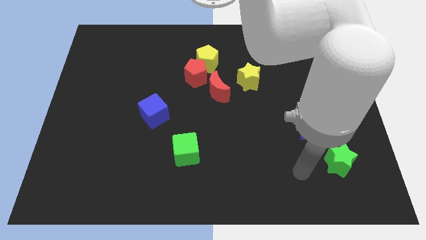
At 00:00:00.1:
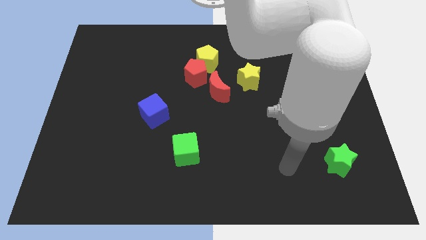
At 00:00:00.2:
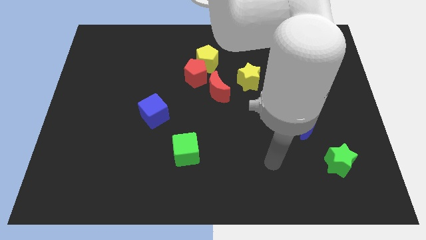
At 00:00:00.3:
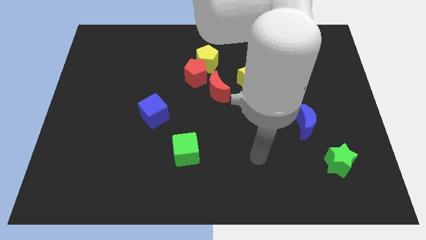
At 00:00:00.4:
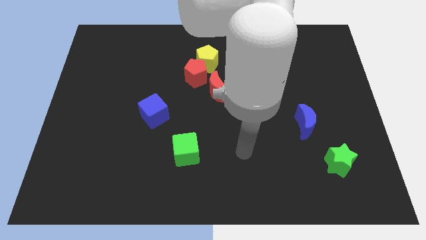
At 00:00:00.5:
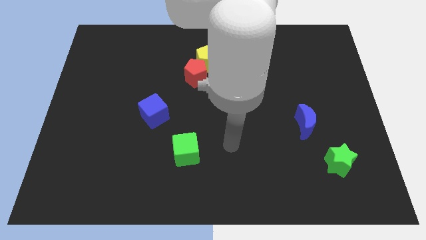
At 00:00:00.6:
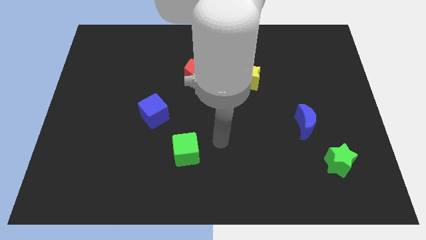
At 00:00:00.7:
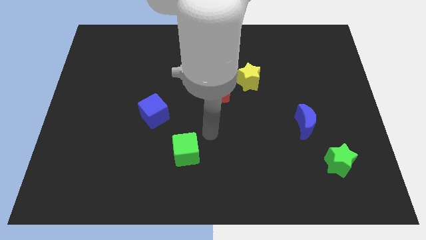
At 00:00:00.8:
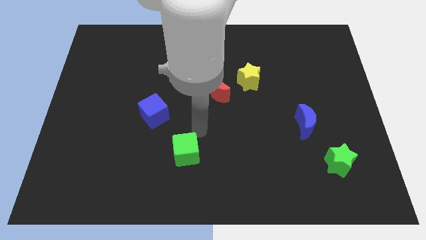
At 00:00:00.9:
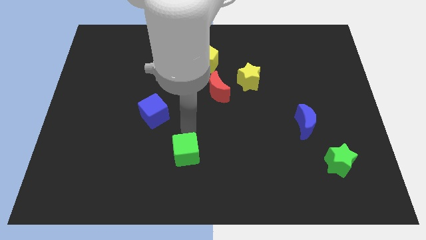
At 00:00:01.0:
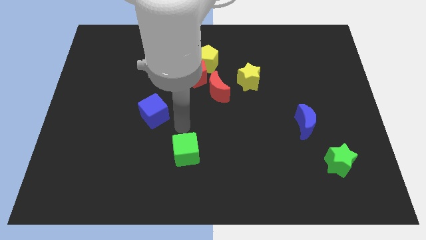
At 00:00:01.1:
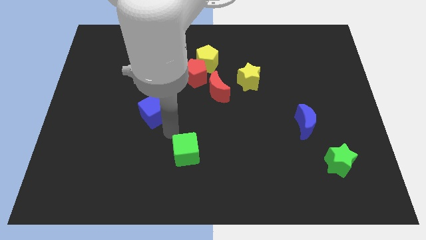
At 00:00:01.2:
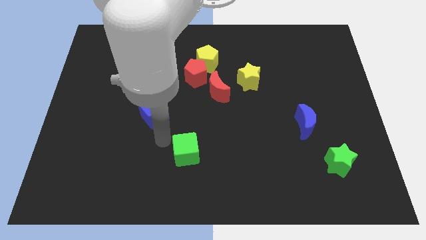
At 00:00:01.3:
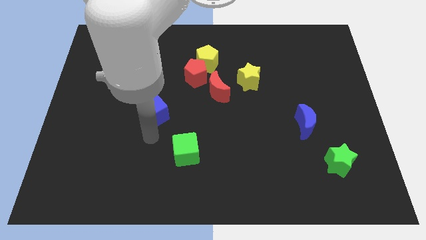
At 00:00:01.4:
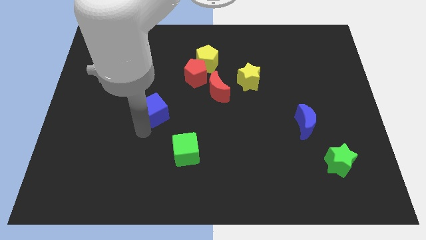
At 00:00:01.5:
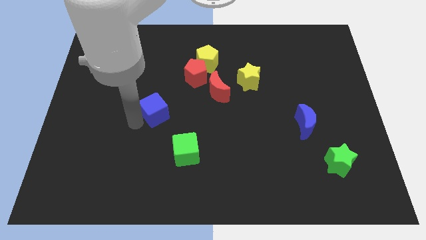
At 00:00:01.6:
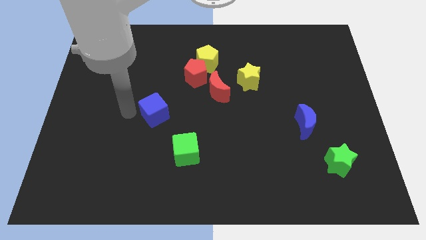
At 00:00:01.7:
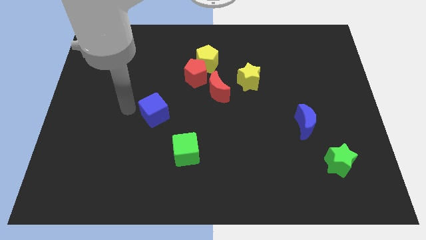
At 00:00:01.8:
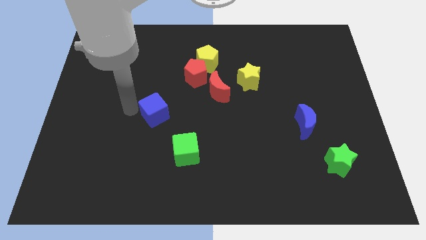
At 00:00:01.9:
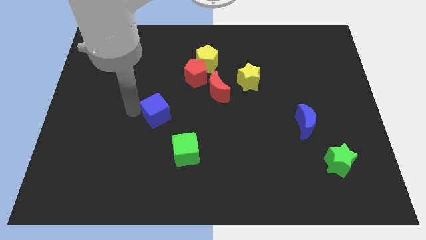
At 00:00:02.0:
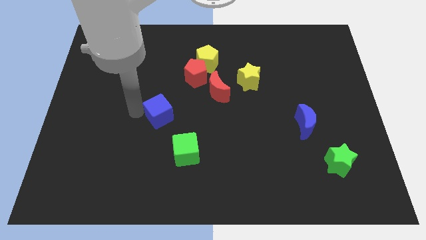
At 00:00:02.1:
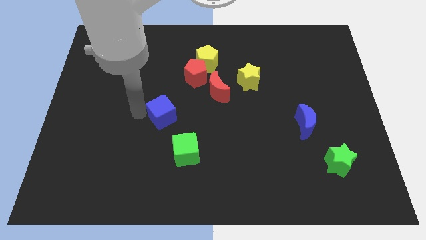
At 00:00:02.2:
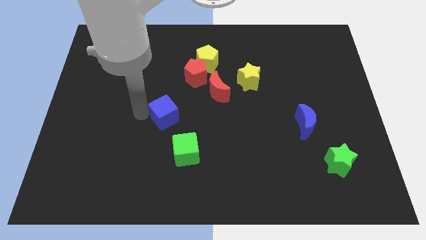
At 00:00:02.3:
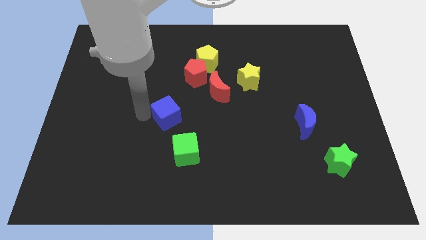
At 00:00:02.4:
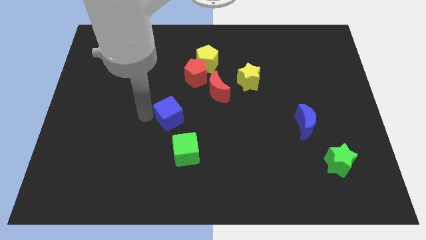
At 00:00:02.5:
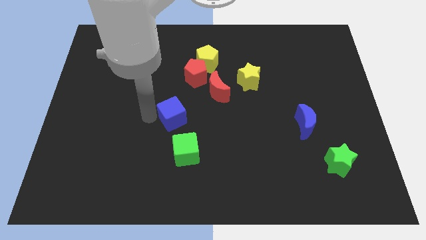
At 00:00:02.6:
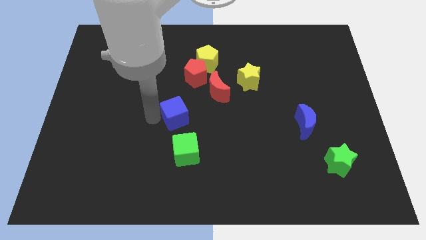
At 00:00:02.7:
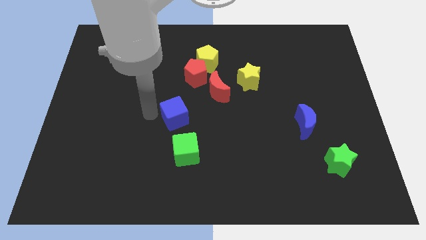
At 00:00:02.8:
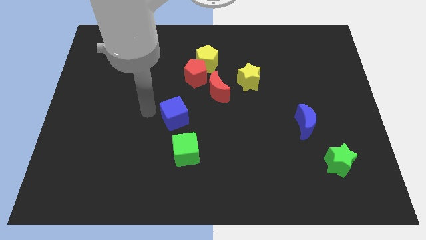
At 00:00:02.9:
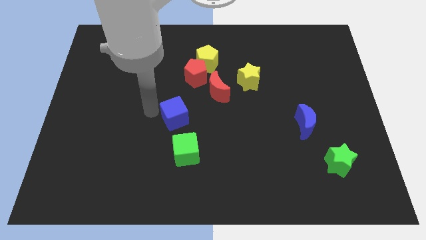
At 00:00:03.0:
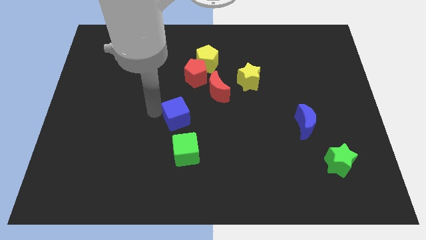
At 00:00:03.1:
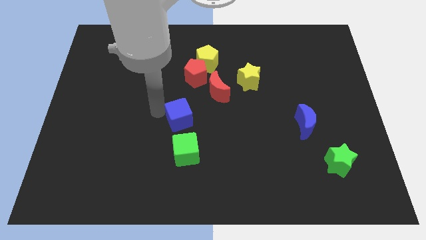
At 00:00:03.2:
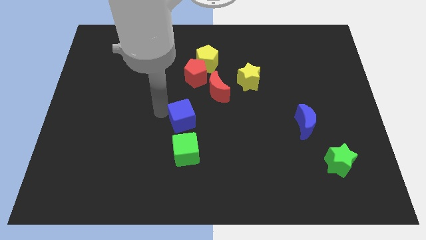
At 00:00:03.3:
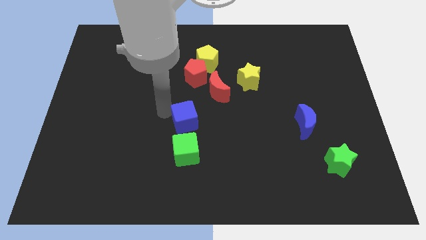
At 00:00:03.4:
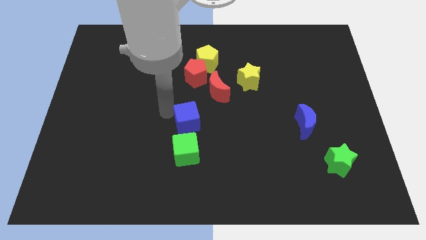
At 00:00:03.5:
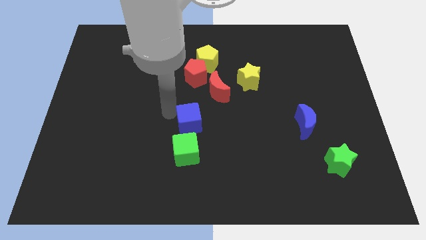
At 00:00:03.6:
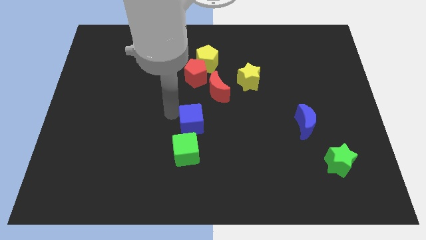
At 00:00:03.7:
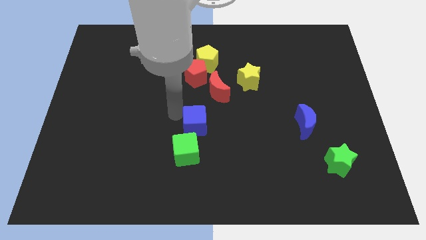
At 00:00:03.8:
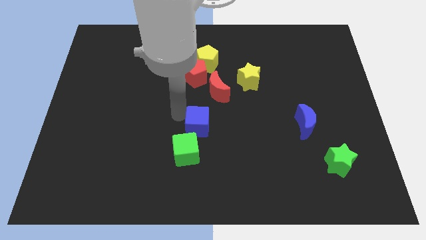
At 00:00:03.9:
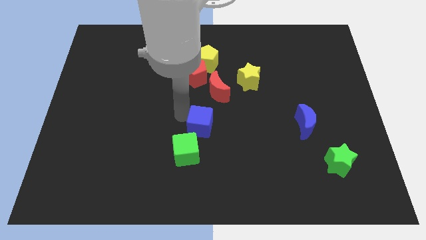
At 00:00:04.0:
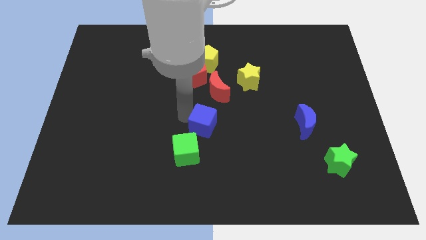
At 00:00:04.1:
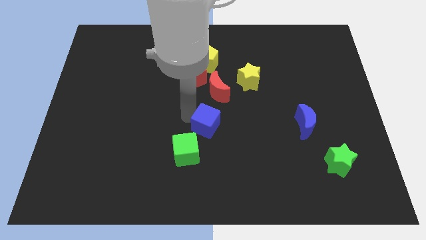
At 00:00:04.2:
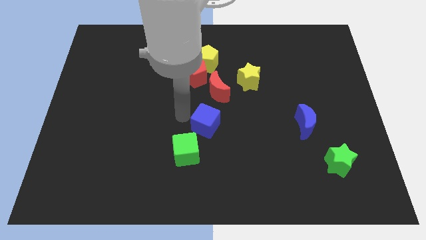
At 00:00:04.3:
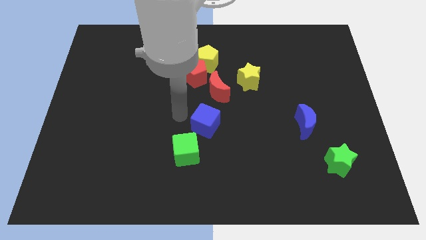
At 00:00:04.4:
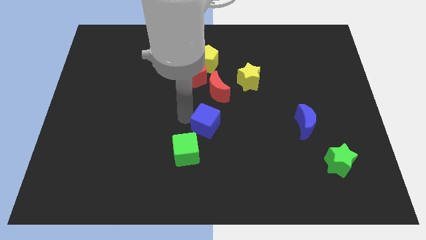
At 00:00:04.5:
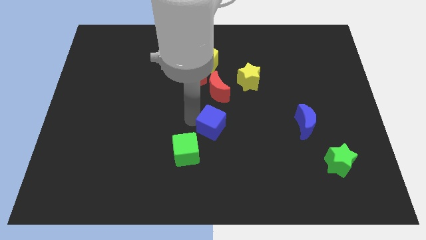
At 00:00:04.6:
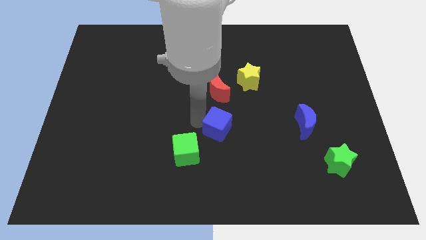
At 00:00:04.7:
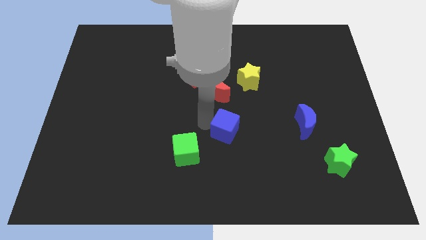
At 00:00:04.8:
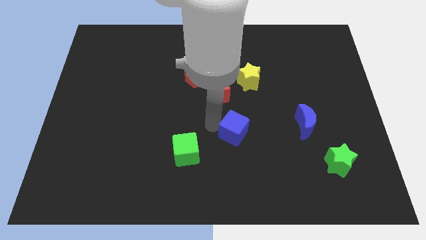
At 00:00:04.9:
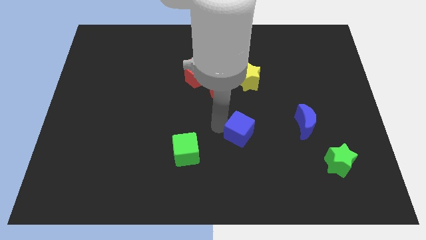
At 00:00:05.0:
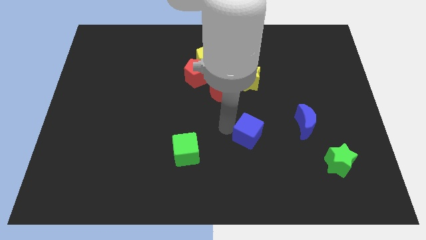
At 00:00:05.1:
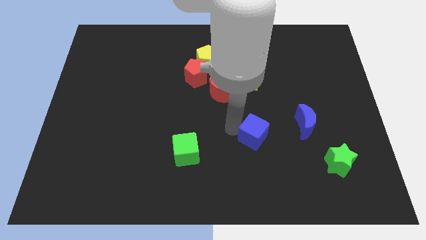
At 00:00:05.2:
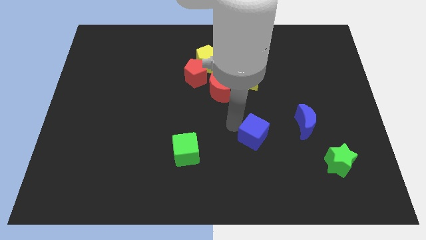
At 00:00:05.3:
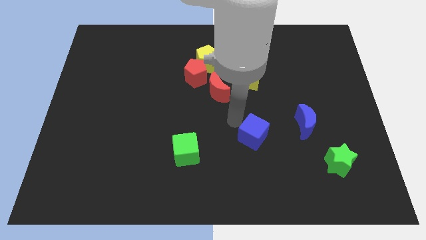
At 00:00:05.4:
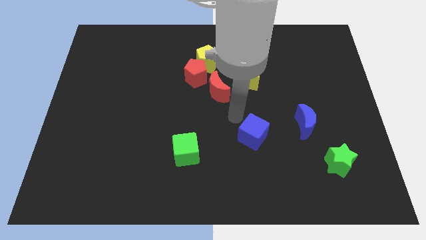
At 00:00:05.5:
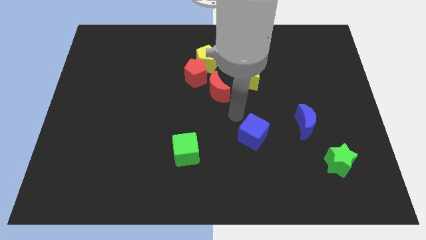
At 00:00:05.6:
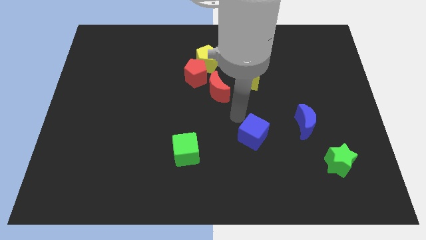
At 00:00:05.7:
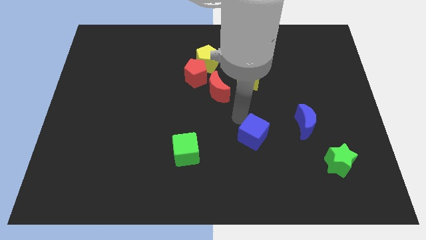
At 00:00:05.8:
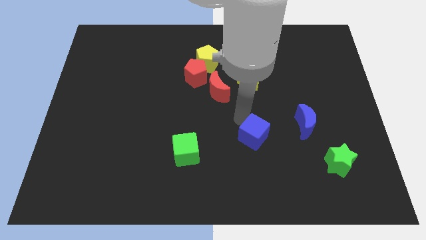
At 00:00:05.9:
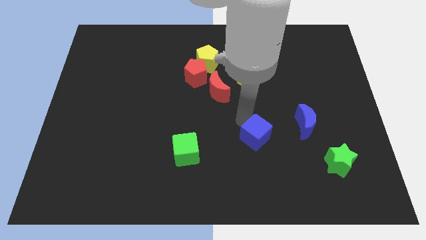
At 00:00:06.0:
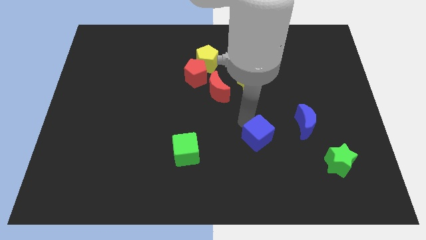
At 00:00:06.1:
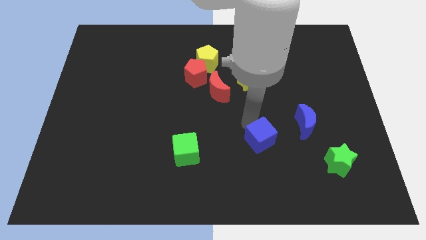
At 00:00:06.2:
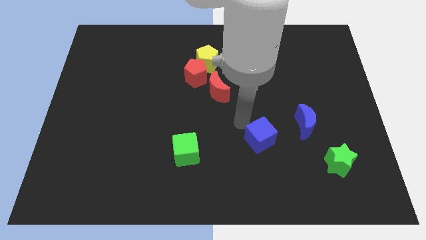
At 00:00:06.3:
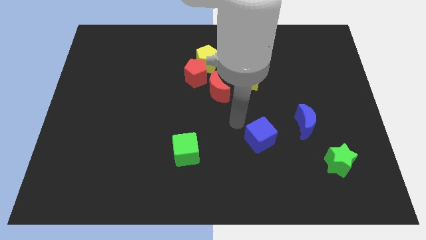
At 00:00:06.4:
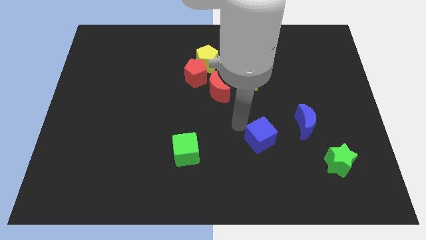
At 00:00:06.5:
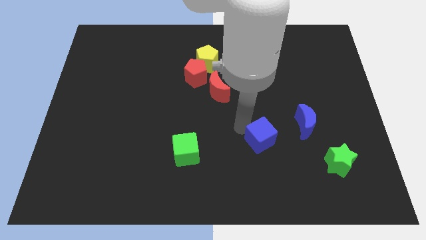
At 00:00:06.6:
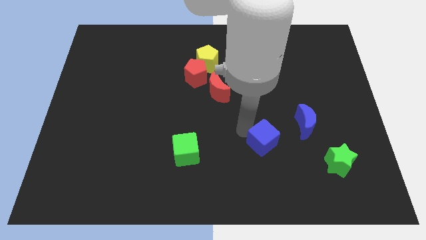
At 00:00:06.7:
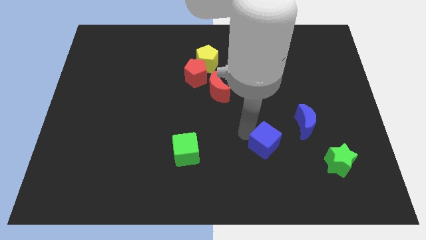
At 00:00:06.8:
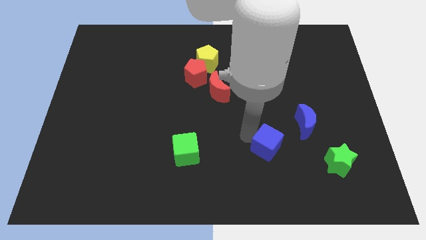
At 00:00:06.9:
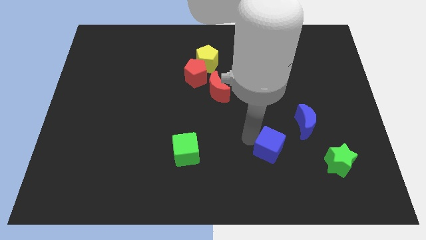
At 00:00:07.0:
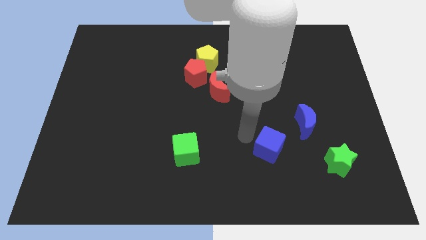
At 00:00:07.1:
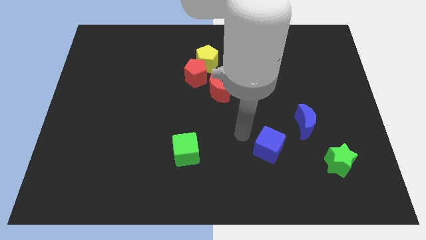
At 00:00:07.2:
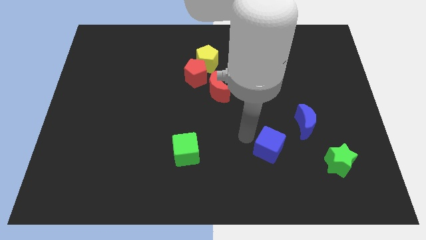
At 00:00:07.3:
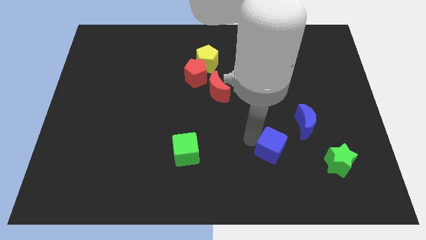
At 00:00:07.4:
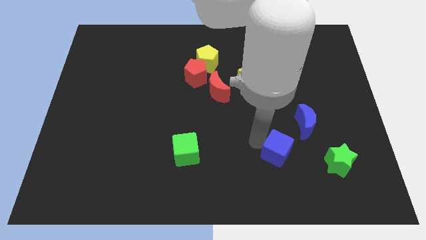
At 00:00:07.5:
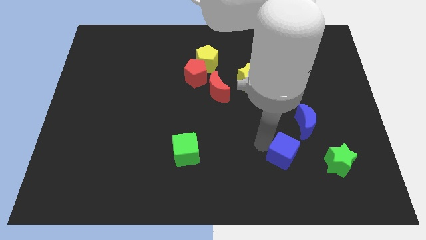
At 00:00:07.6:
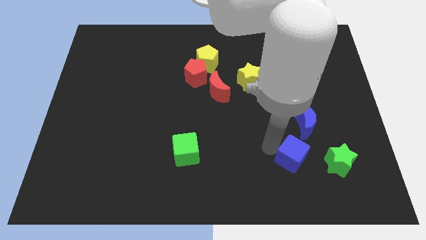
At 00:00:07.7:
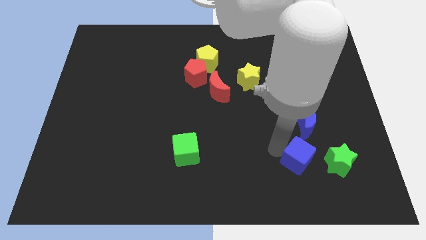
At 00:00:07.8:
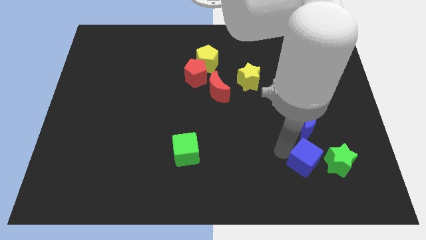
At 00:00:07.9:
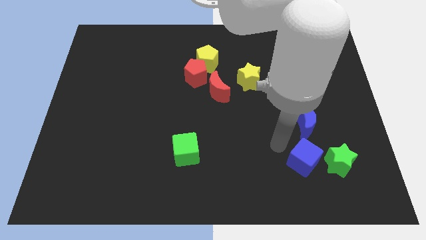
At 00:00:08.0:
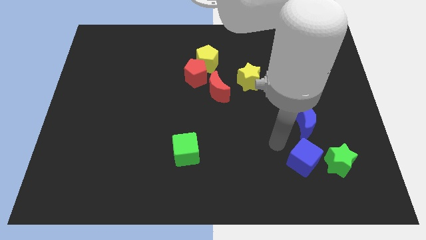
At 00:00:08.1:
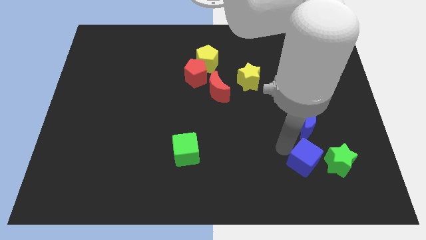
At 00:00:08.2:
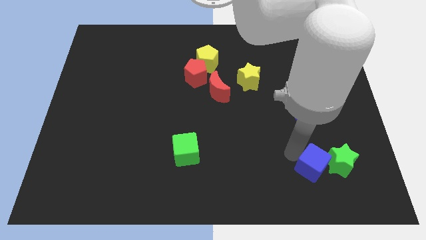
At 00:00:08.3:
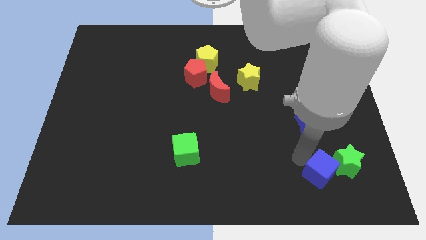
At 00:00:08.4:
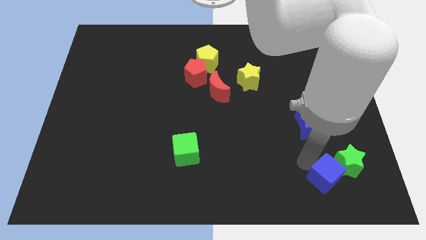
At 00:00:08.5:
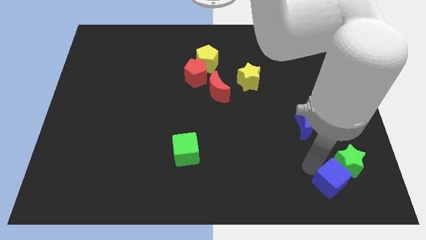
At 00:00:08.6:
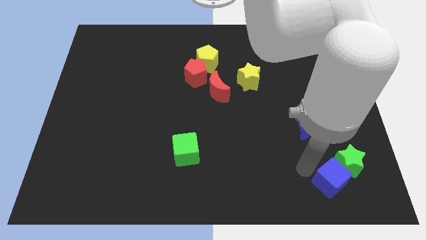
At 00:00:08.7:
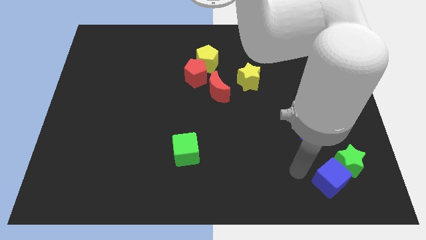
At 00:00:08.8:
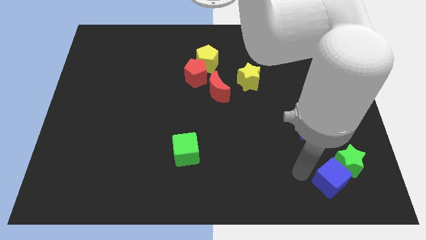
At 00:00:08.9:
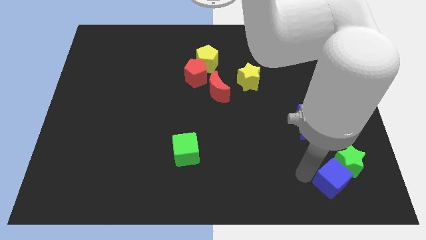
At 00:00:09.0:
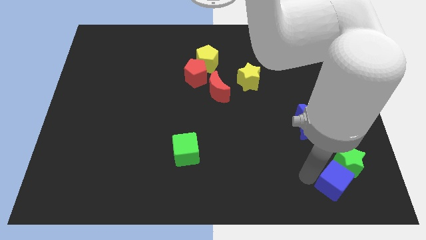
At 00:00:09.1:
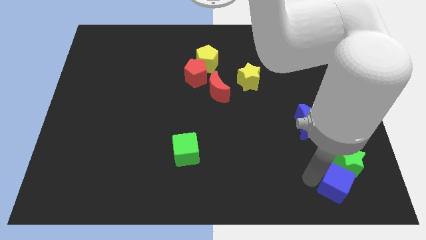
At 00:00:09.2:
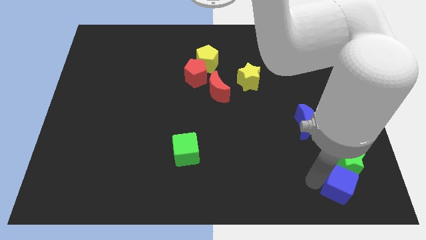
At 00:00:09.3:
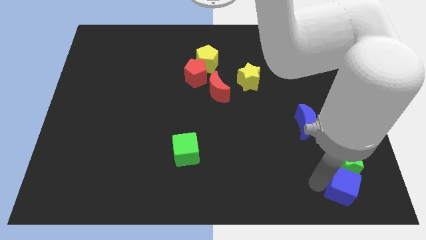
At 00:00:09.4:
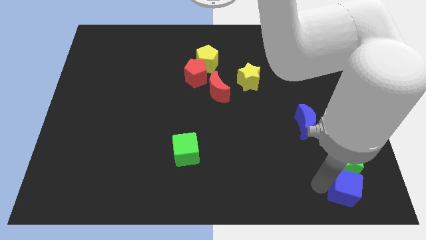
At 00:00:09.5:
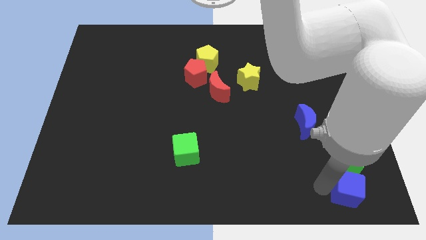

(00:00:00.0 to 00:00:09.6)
put the blue cube to the lower right corner
